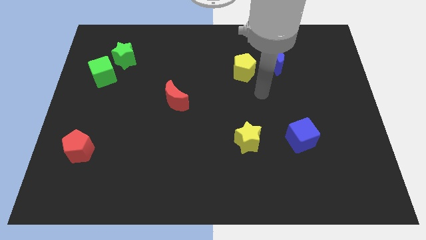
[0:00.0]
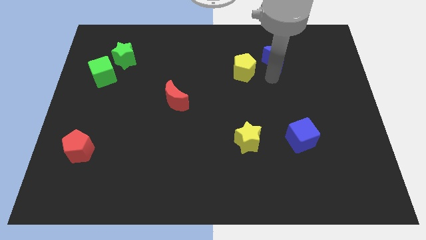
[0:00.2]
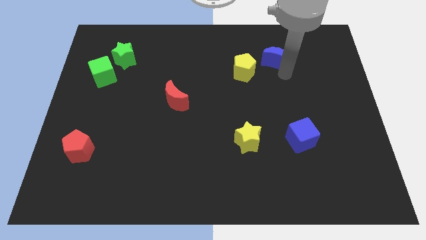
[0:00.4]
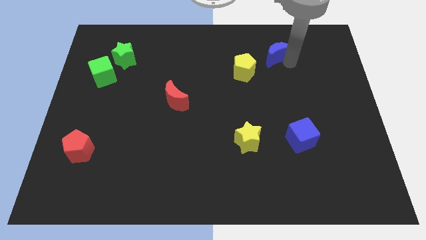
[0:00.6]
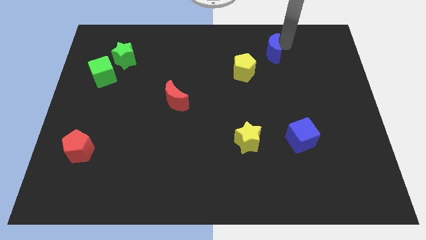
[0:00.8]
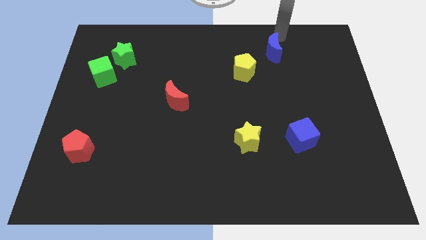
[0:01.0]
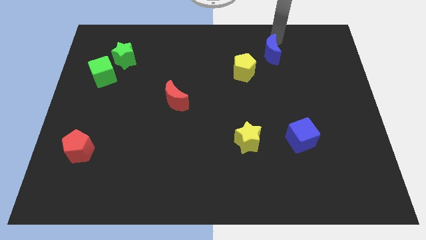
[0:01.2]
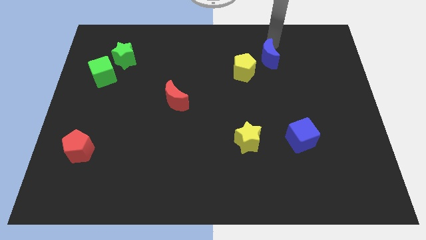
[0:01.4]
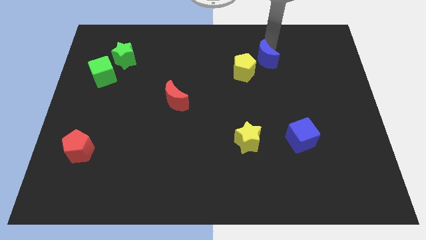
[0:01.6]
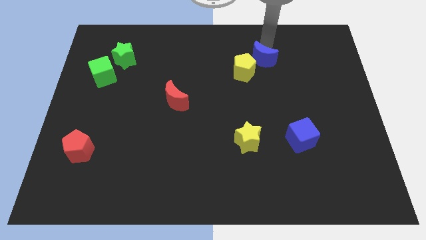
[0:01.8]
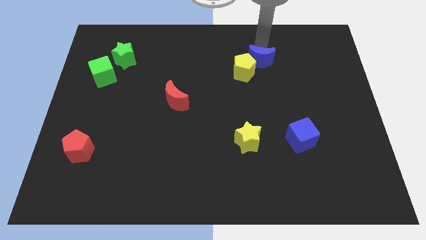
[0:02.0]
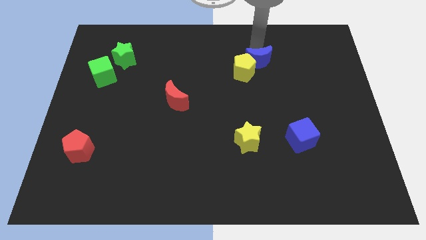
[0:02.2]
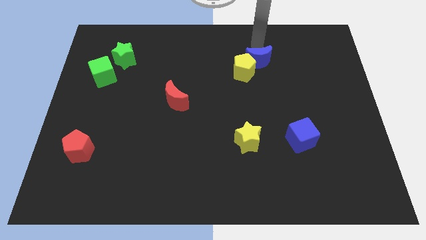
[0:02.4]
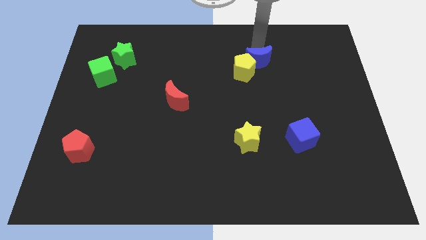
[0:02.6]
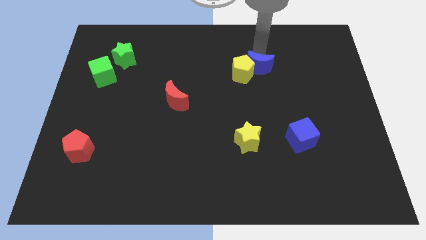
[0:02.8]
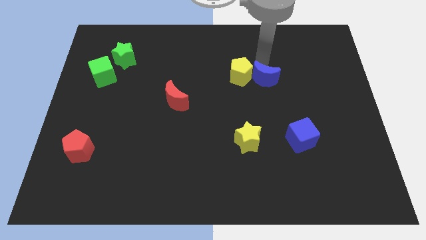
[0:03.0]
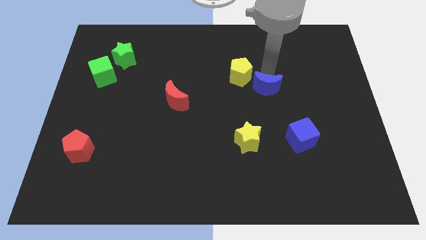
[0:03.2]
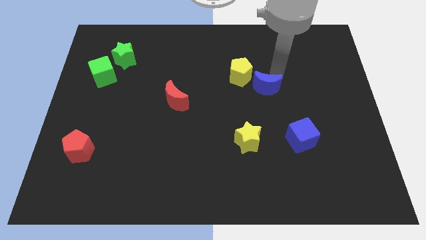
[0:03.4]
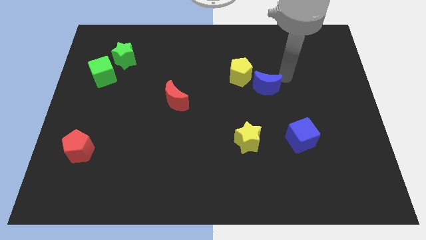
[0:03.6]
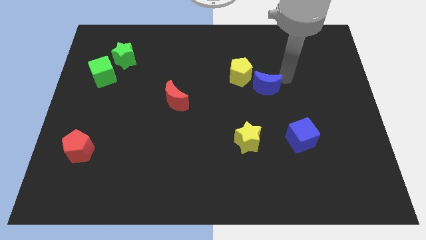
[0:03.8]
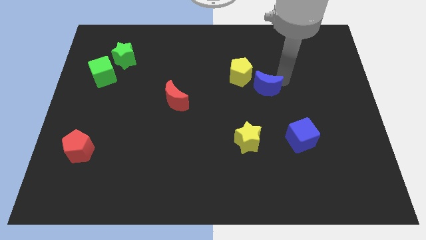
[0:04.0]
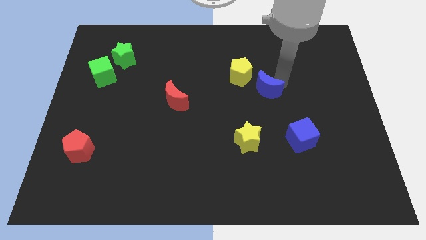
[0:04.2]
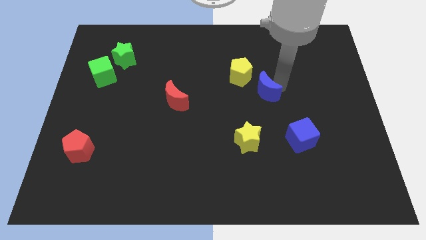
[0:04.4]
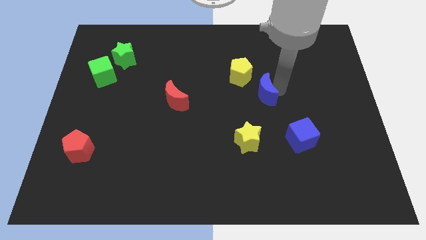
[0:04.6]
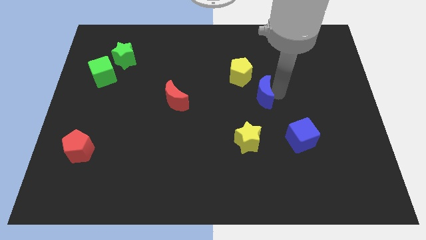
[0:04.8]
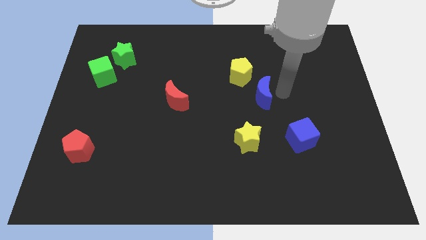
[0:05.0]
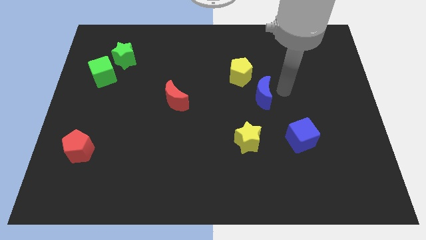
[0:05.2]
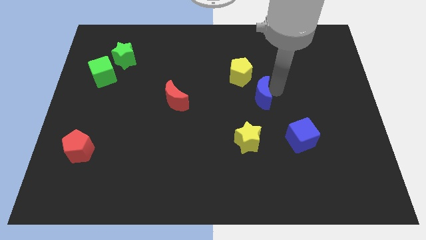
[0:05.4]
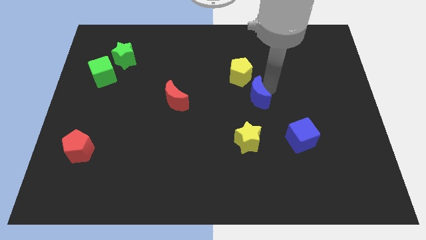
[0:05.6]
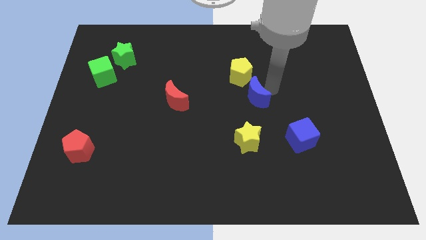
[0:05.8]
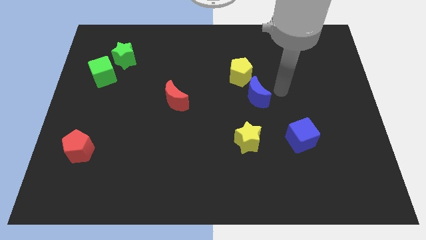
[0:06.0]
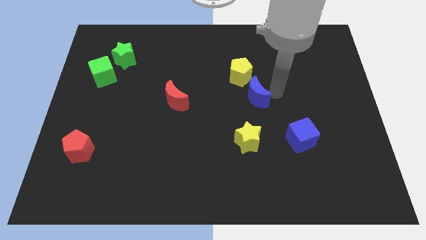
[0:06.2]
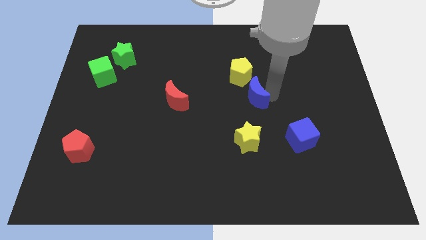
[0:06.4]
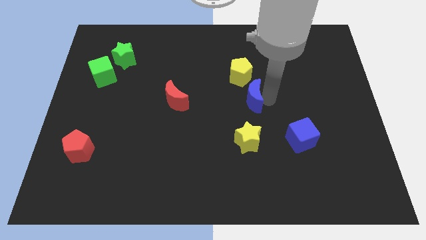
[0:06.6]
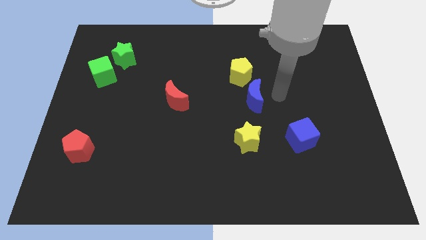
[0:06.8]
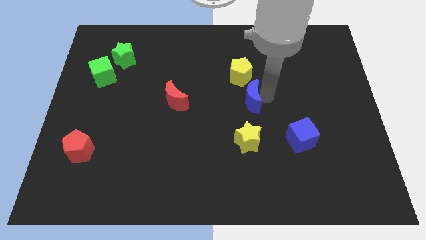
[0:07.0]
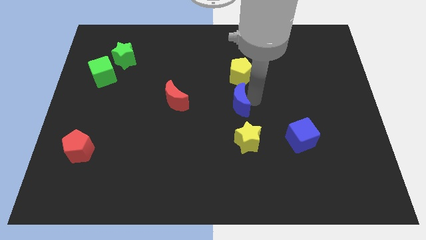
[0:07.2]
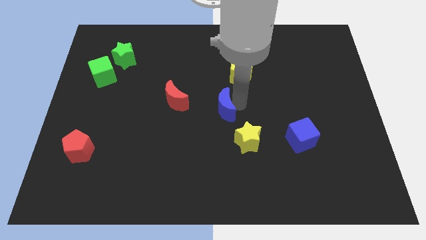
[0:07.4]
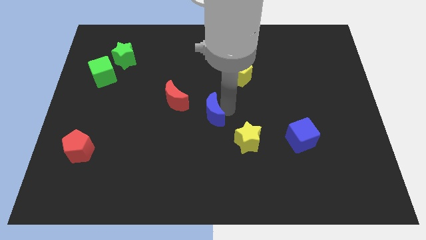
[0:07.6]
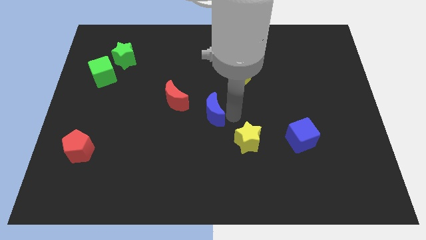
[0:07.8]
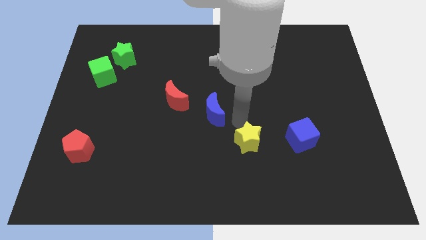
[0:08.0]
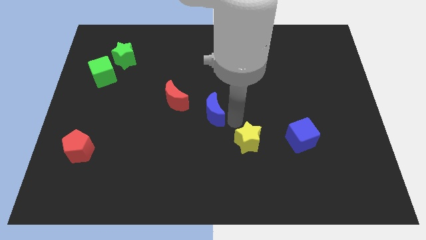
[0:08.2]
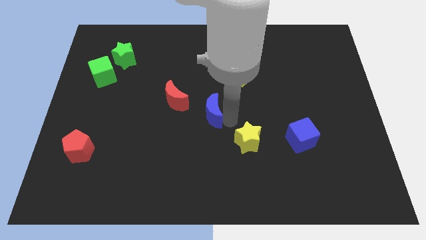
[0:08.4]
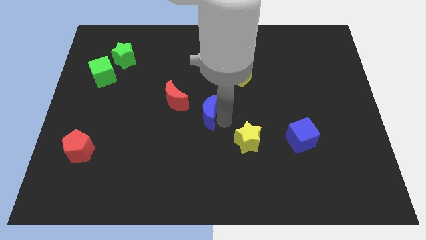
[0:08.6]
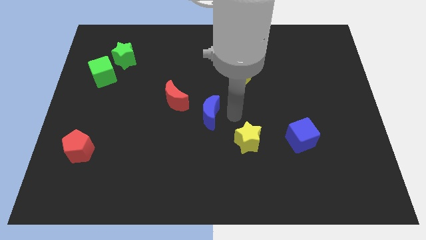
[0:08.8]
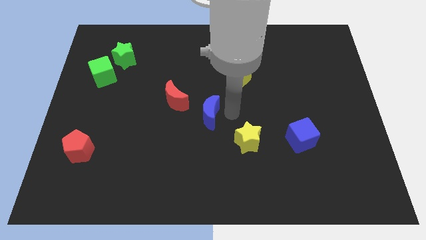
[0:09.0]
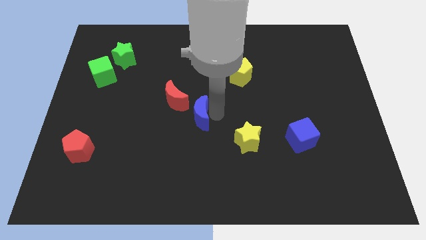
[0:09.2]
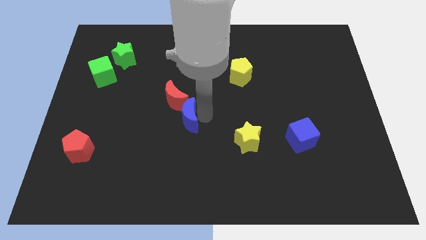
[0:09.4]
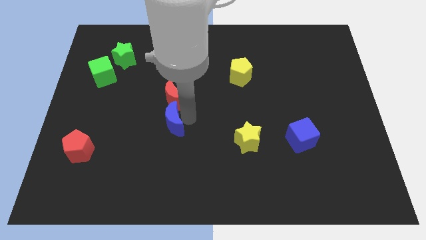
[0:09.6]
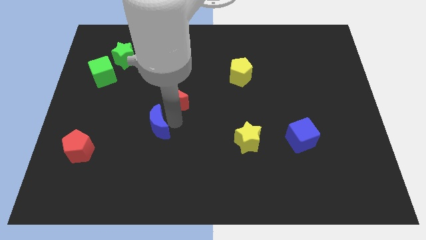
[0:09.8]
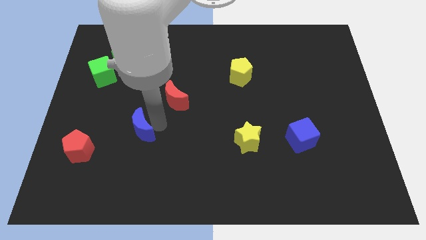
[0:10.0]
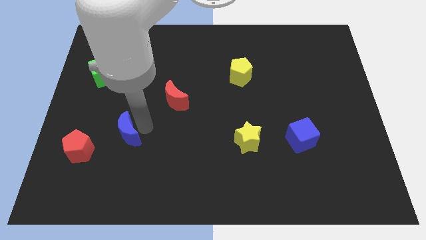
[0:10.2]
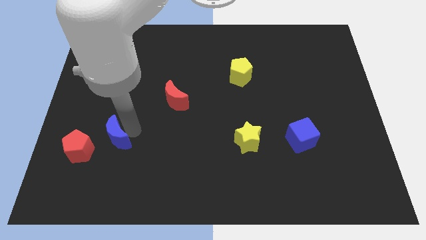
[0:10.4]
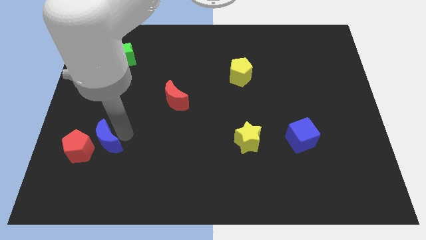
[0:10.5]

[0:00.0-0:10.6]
put the blue moon towards the red pentagon

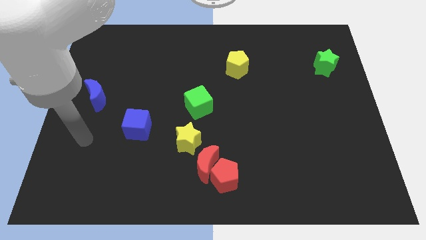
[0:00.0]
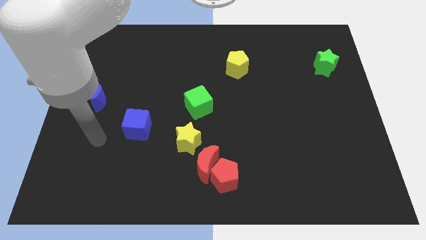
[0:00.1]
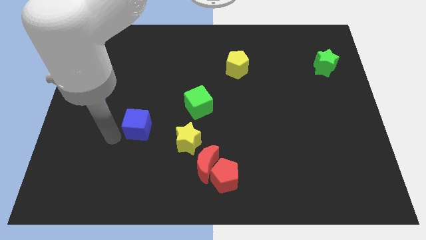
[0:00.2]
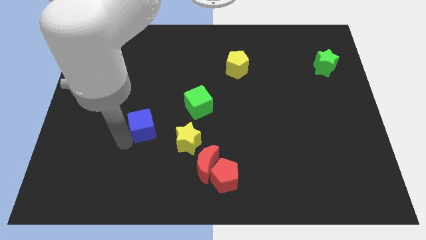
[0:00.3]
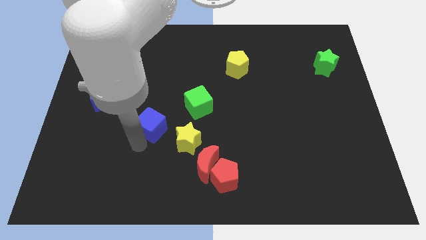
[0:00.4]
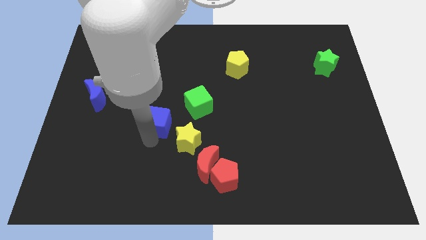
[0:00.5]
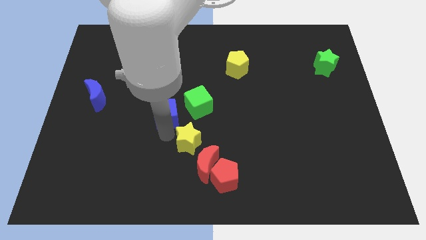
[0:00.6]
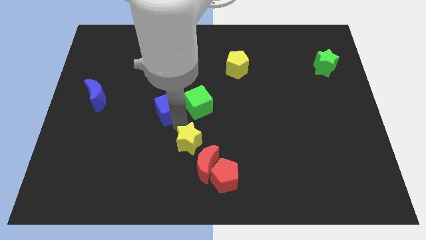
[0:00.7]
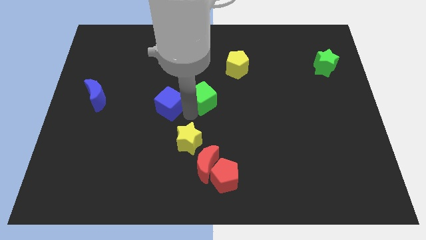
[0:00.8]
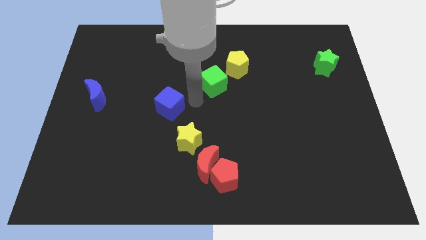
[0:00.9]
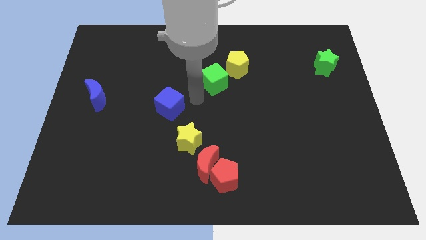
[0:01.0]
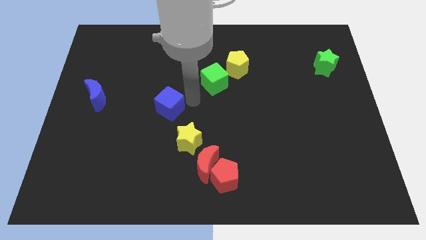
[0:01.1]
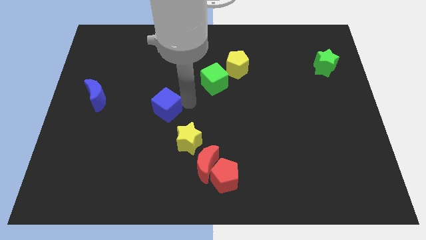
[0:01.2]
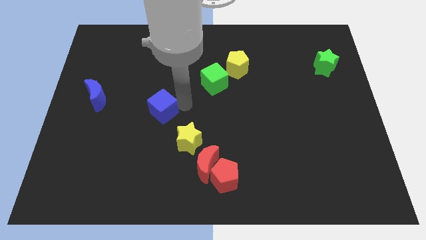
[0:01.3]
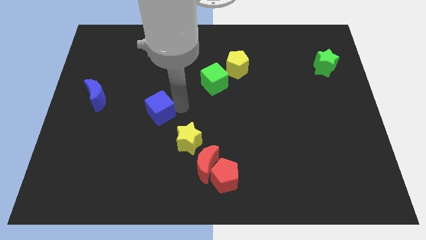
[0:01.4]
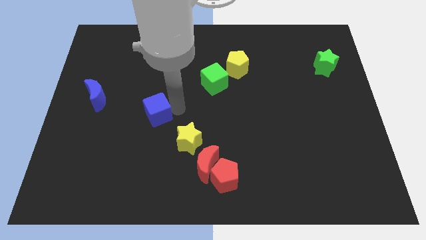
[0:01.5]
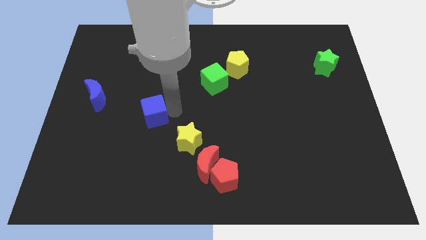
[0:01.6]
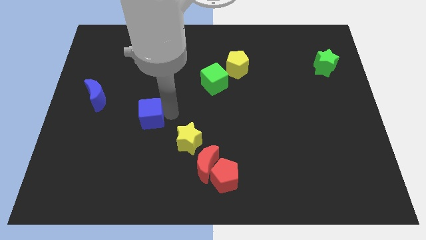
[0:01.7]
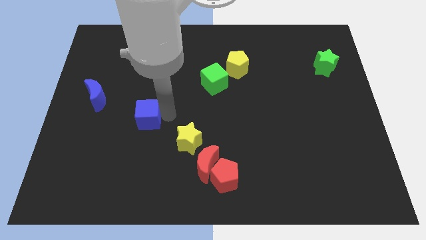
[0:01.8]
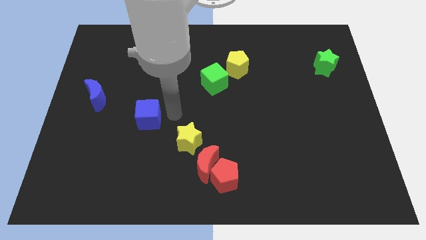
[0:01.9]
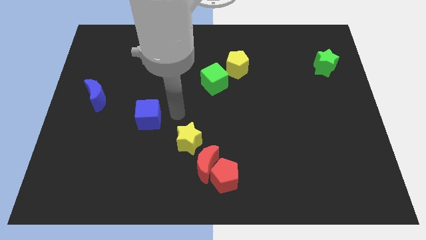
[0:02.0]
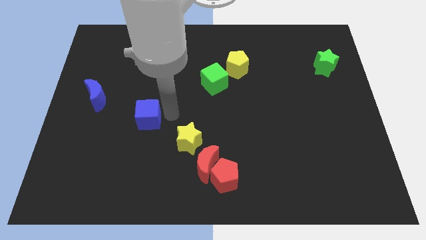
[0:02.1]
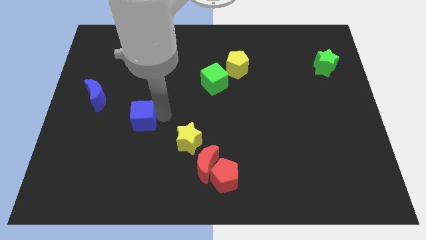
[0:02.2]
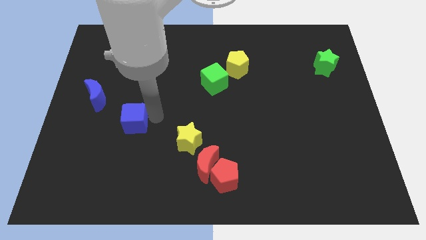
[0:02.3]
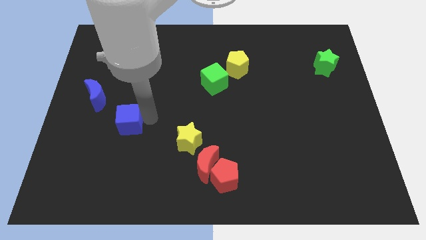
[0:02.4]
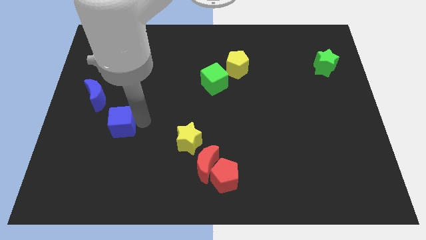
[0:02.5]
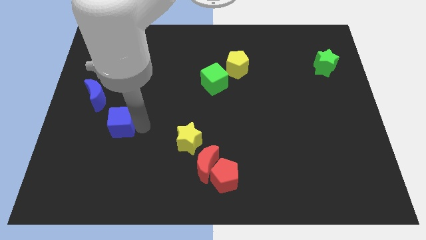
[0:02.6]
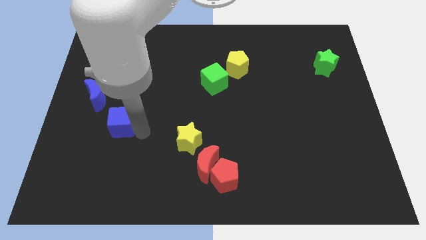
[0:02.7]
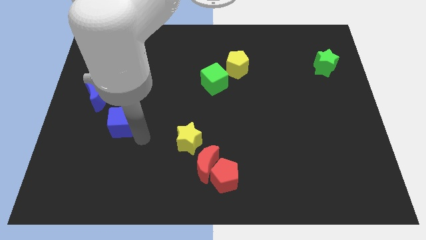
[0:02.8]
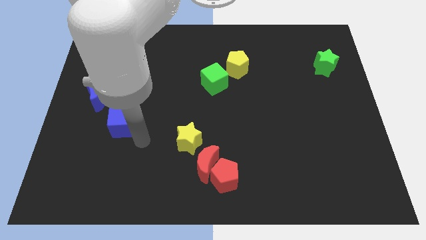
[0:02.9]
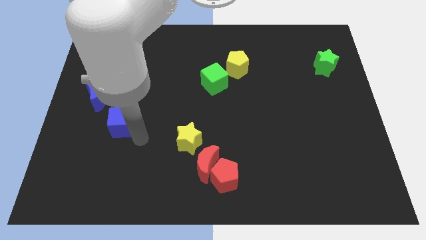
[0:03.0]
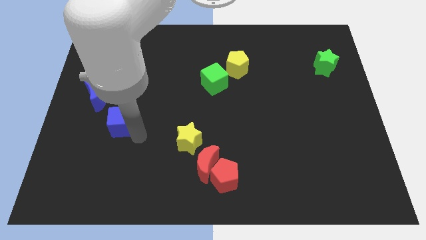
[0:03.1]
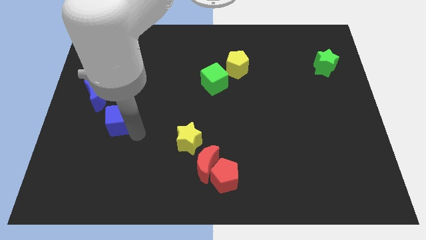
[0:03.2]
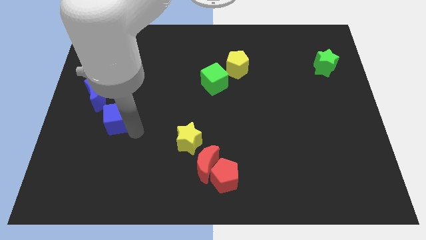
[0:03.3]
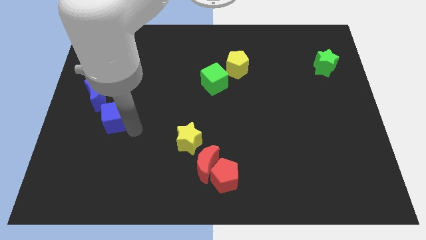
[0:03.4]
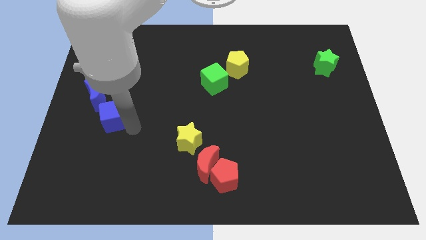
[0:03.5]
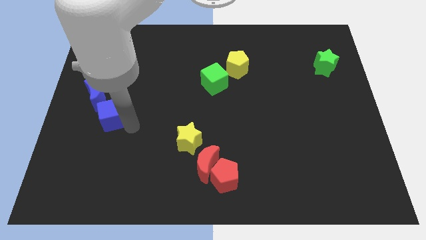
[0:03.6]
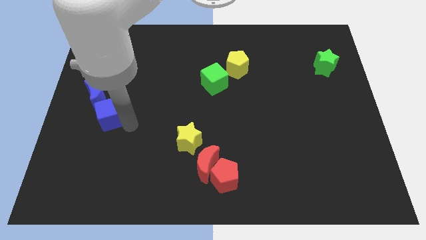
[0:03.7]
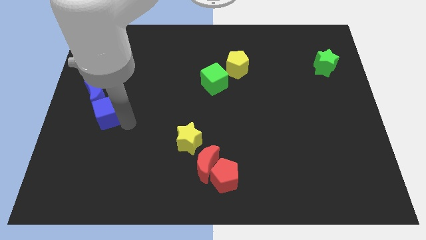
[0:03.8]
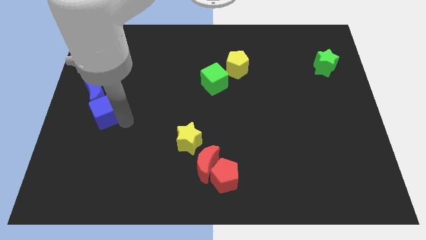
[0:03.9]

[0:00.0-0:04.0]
put the blue cube to the blue moon
